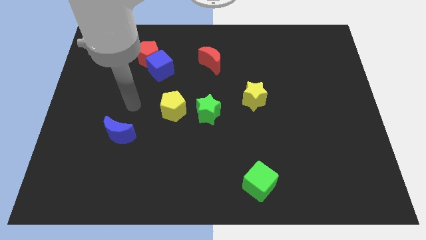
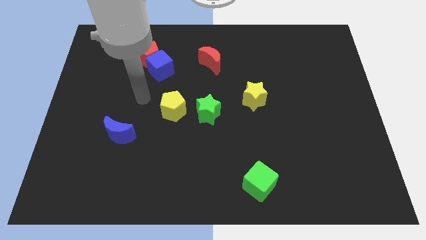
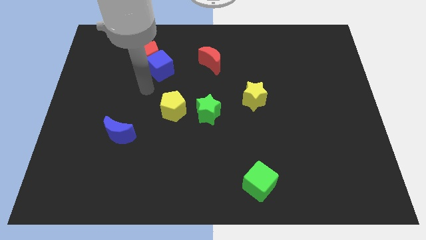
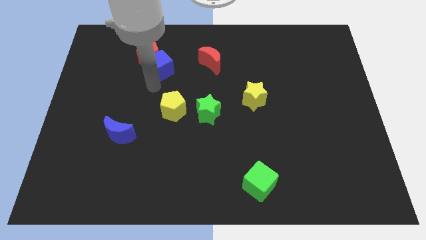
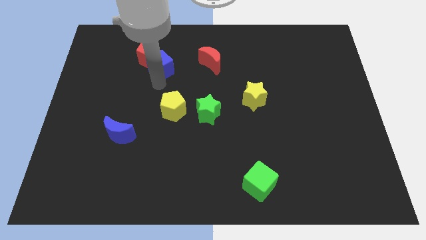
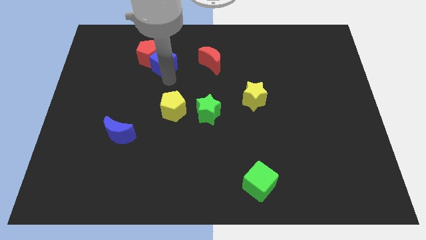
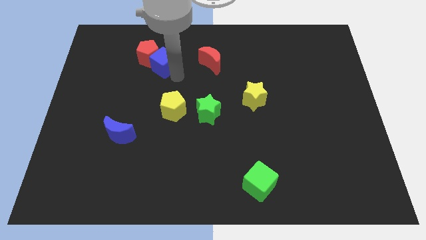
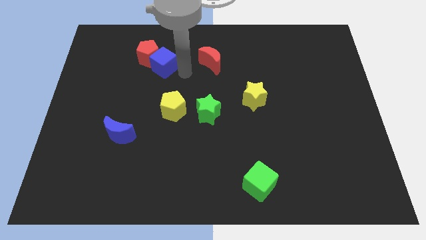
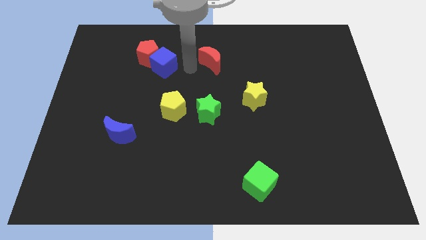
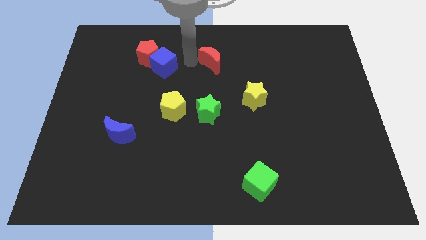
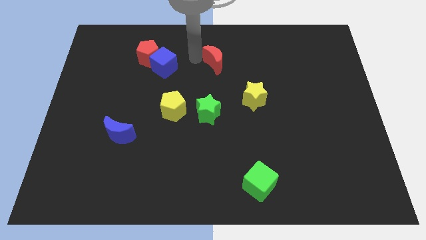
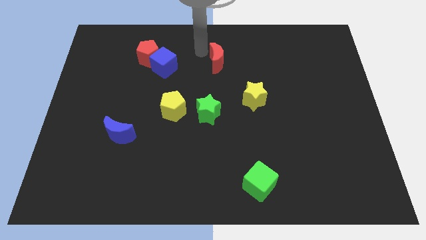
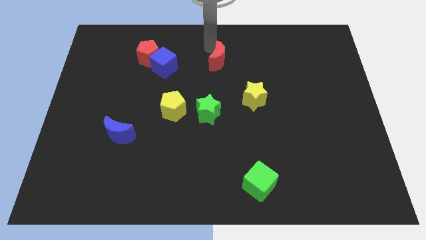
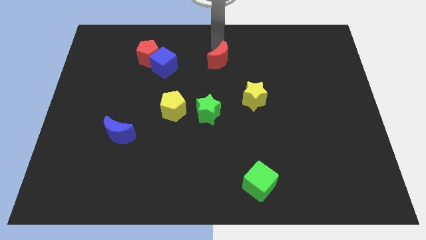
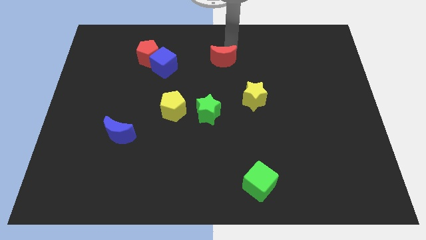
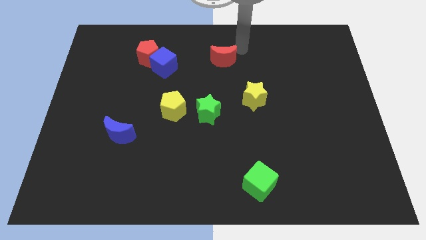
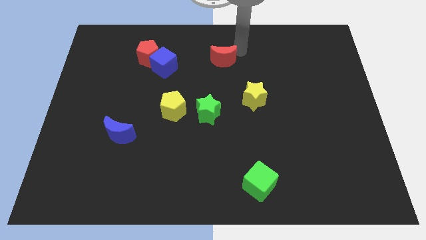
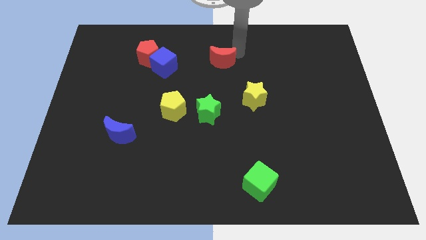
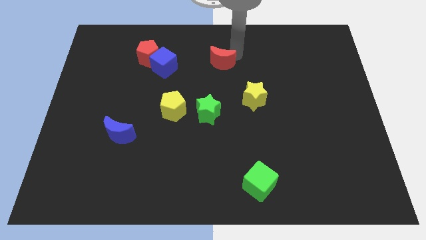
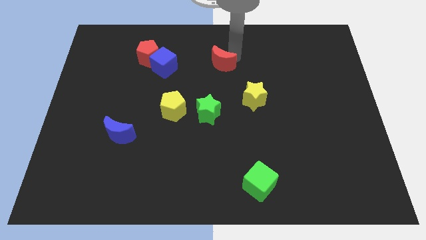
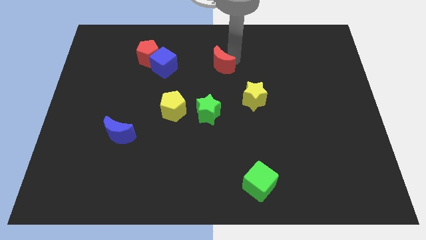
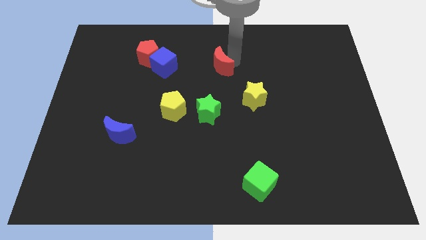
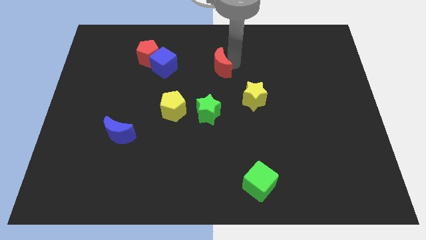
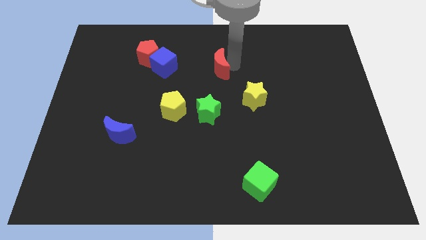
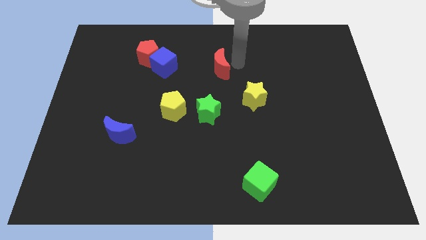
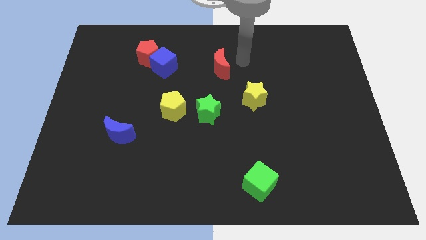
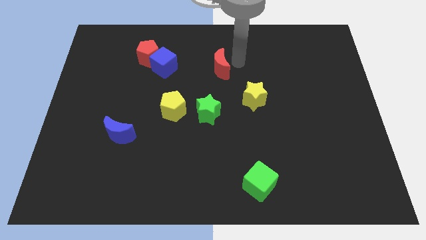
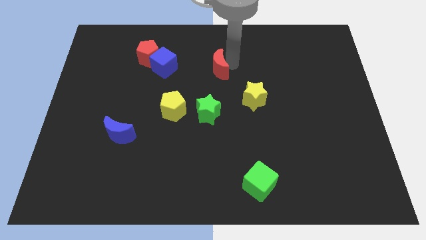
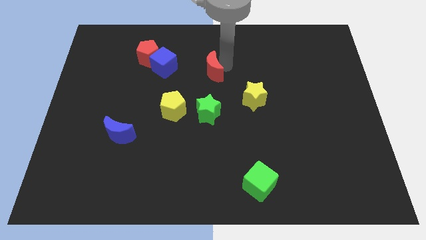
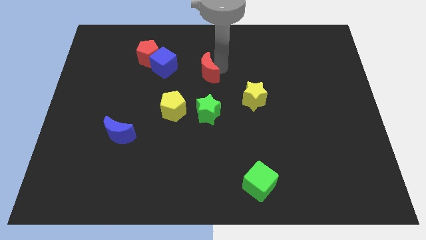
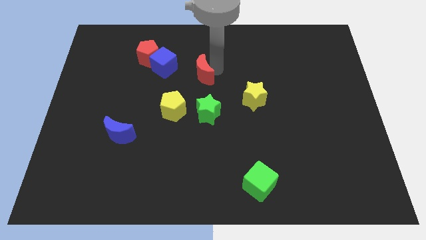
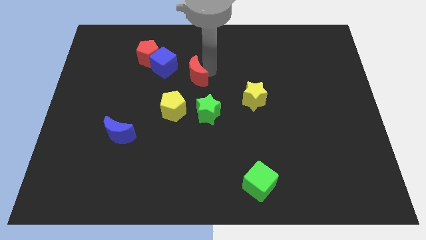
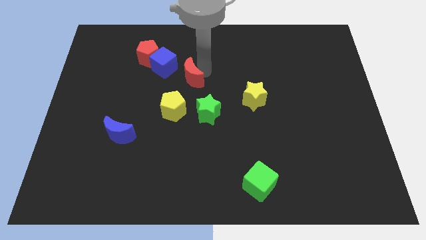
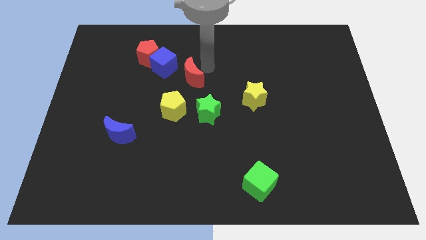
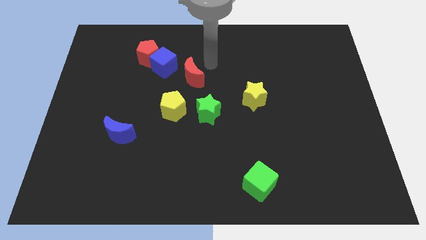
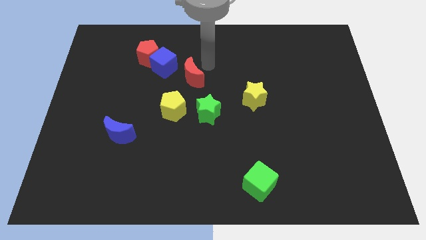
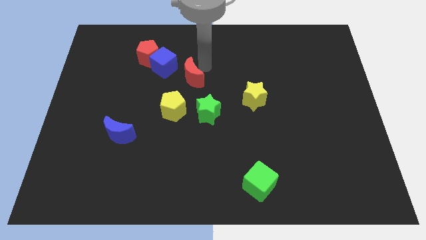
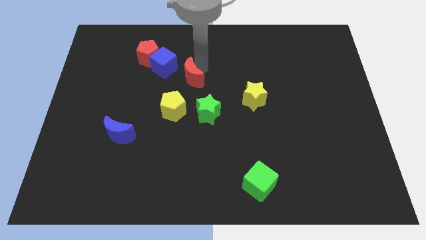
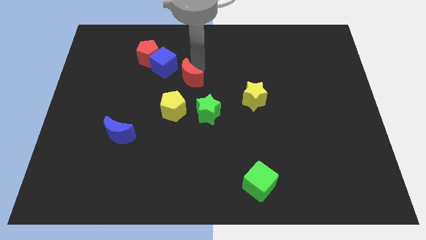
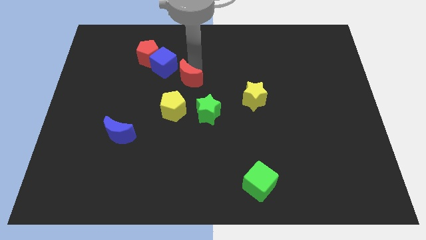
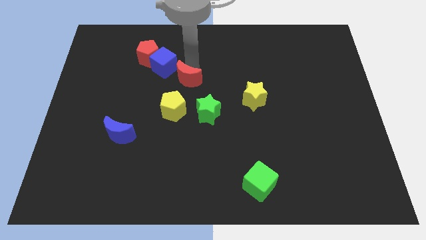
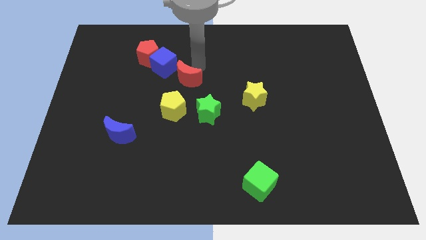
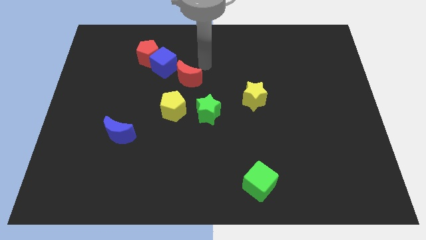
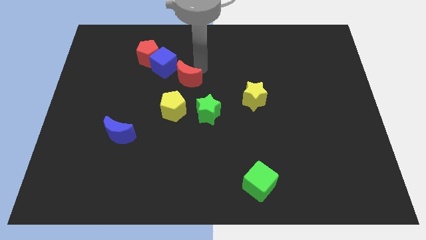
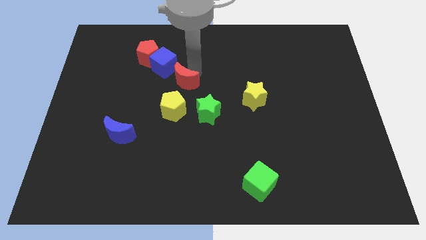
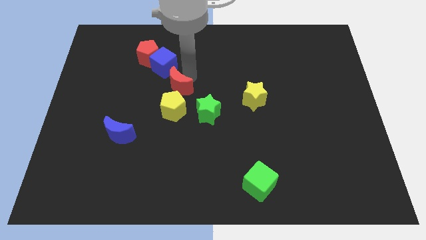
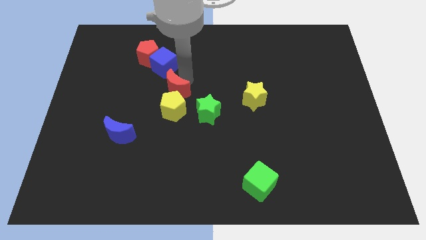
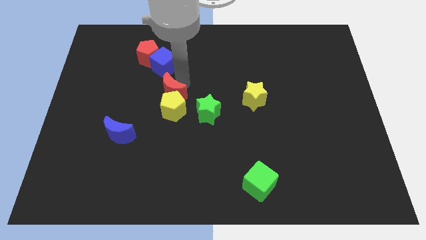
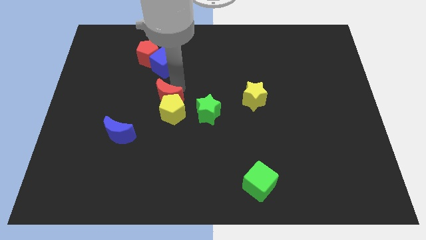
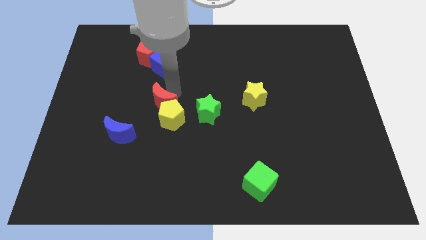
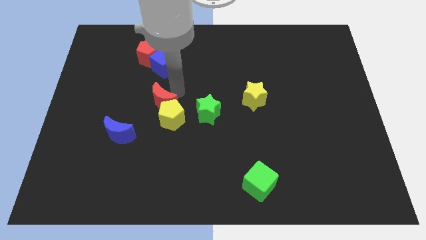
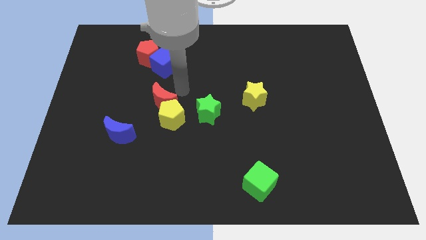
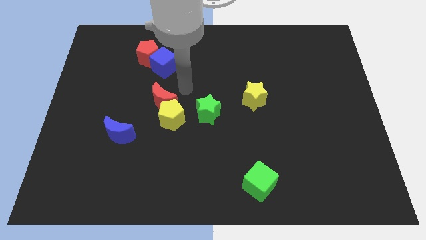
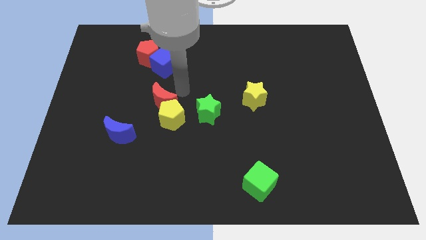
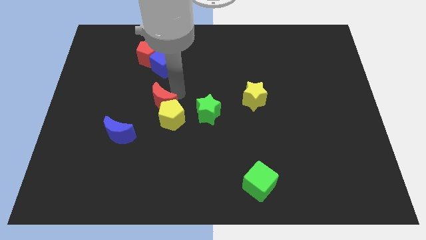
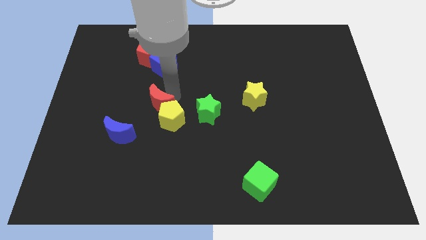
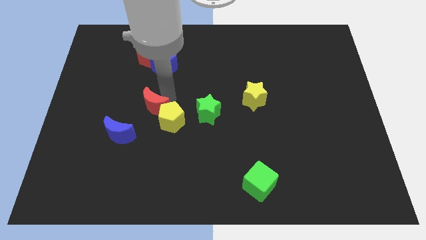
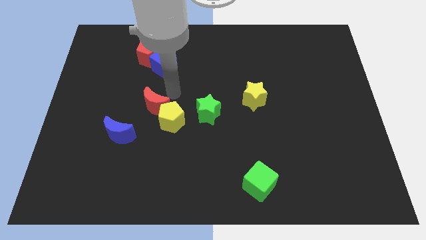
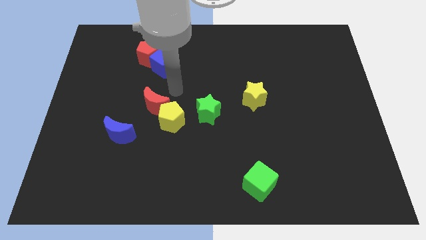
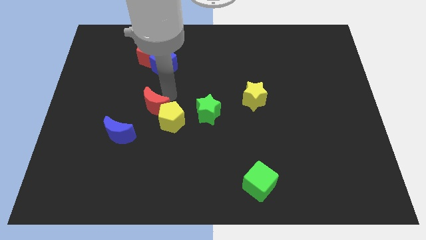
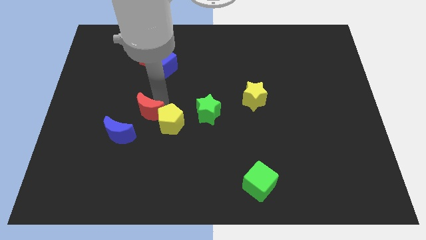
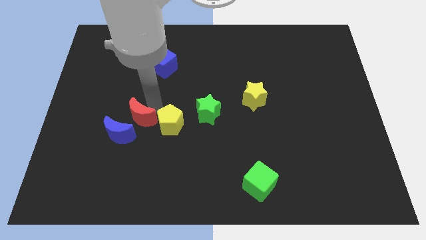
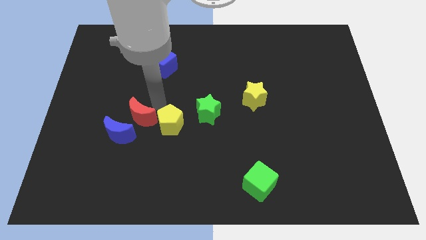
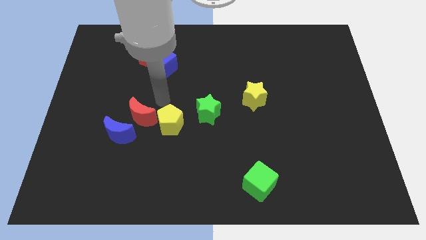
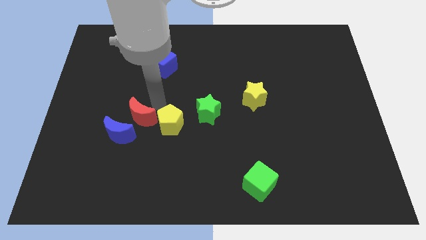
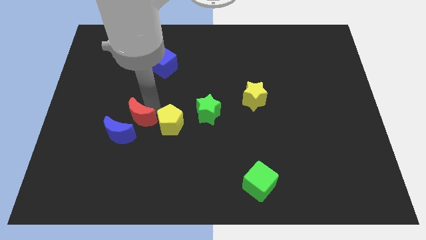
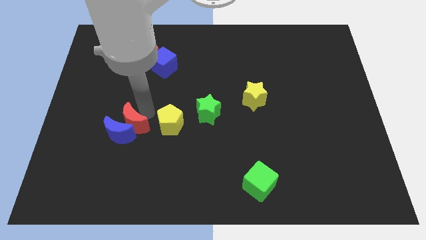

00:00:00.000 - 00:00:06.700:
put the red moon next to the blue moon
